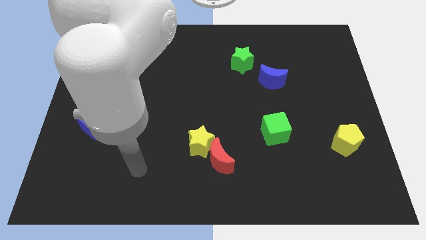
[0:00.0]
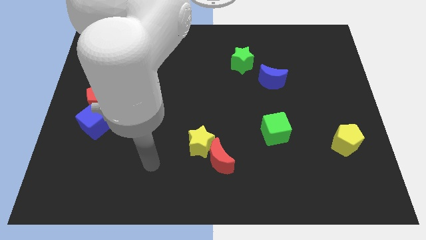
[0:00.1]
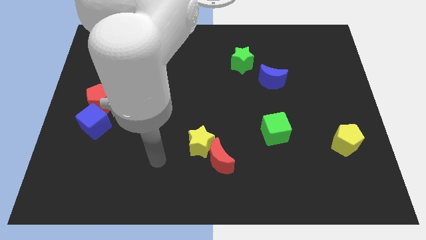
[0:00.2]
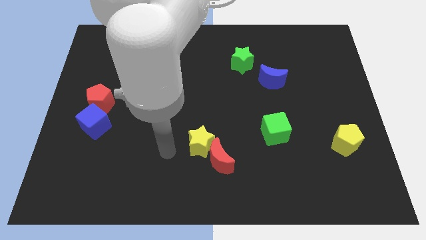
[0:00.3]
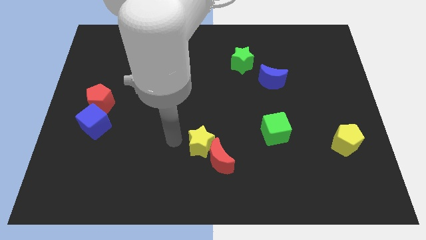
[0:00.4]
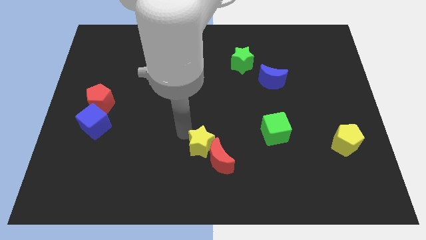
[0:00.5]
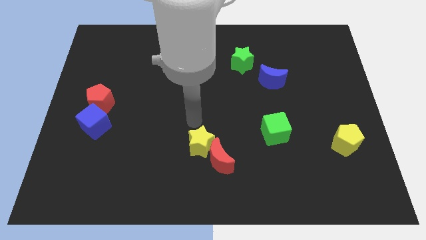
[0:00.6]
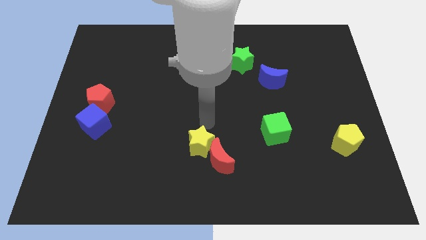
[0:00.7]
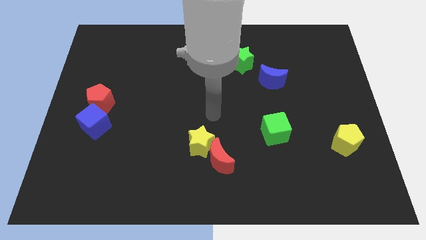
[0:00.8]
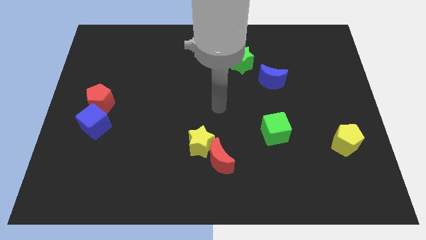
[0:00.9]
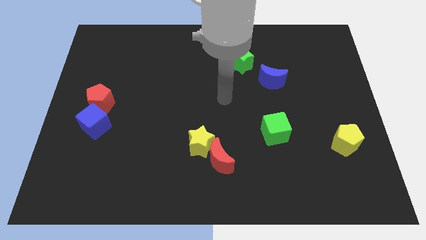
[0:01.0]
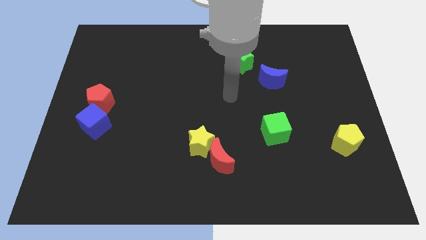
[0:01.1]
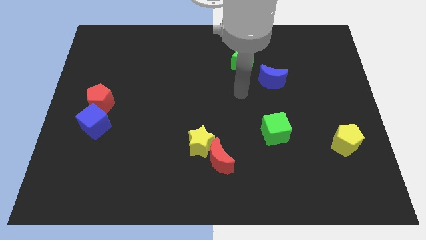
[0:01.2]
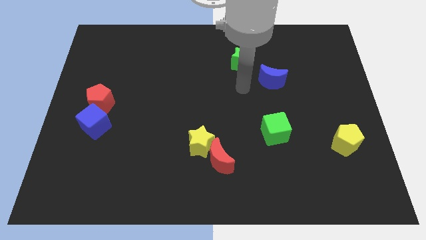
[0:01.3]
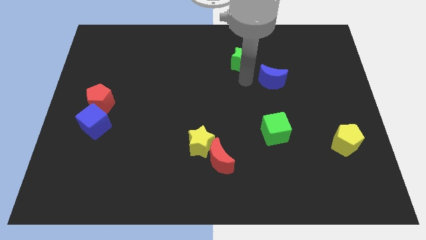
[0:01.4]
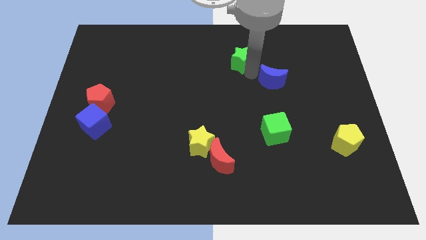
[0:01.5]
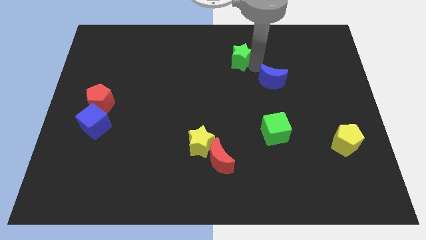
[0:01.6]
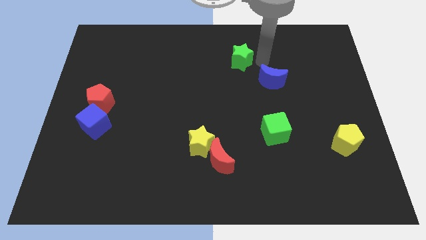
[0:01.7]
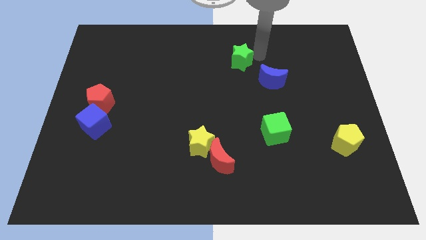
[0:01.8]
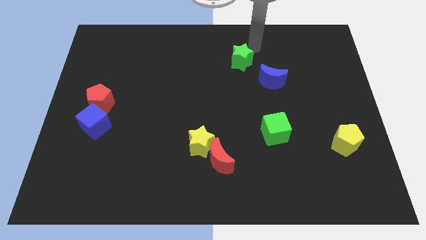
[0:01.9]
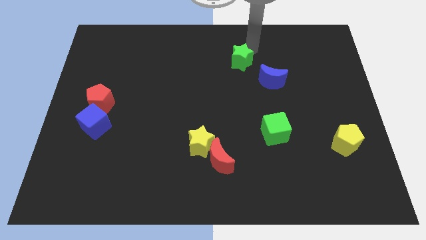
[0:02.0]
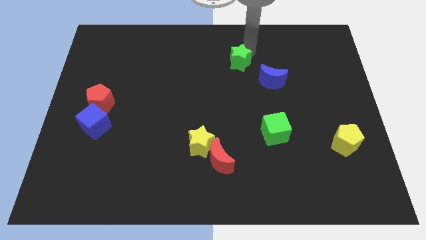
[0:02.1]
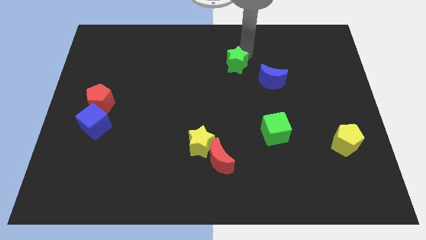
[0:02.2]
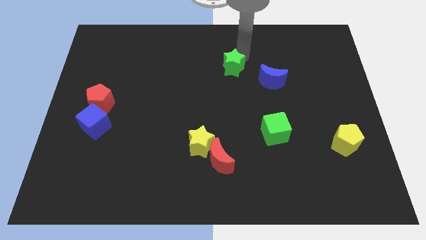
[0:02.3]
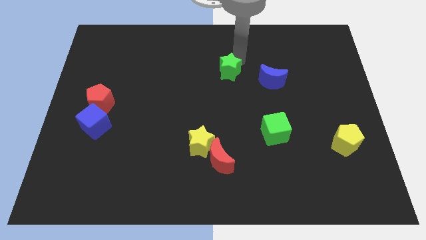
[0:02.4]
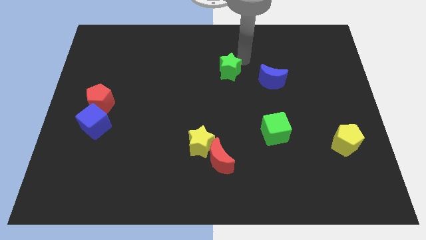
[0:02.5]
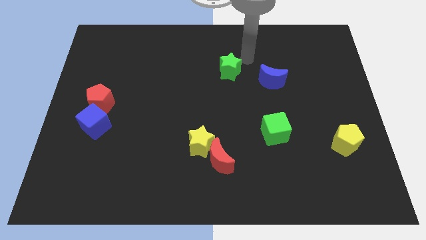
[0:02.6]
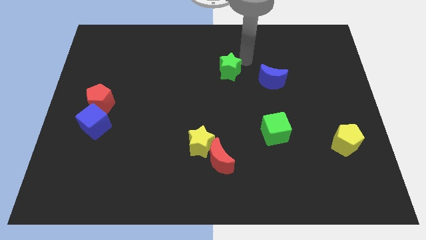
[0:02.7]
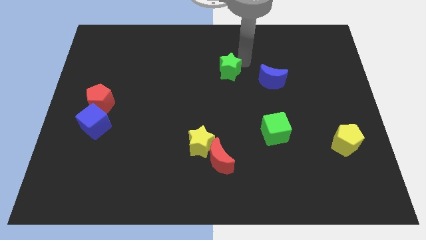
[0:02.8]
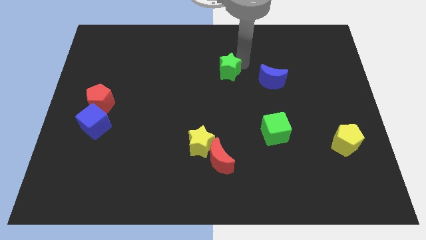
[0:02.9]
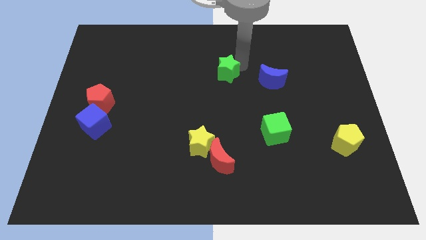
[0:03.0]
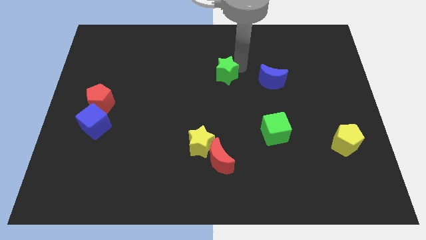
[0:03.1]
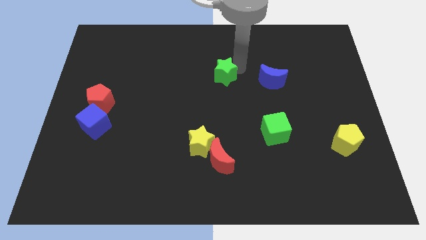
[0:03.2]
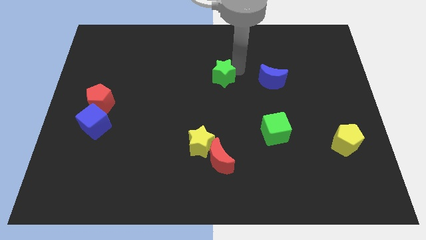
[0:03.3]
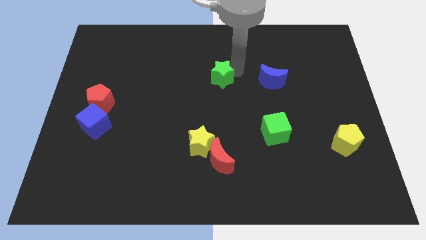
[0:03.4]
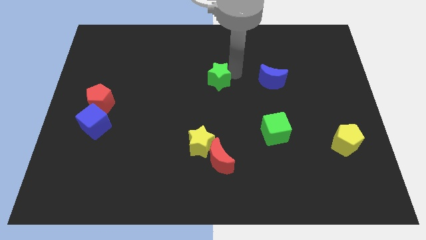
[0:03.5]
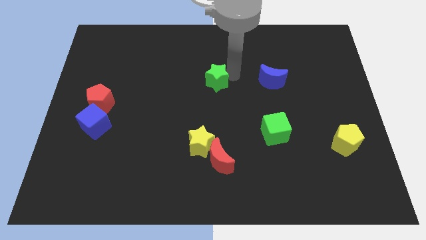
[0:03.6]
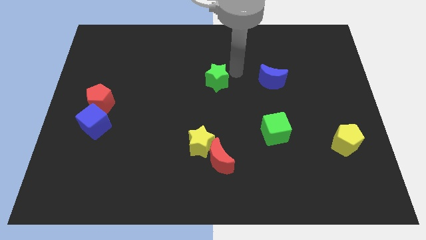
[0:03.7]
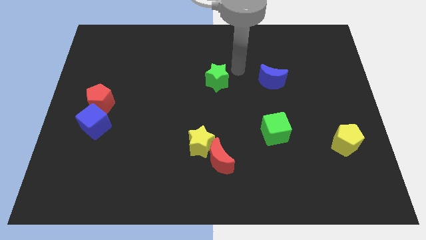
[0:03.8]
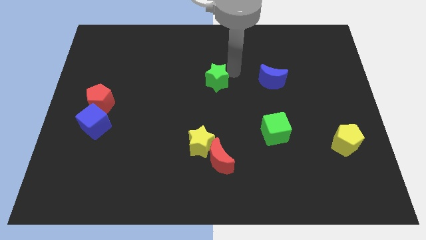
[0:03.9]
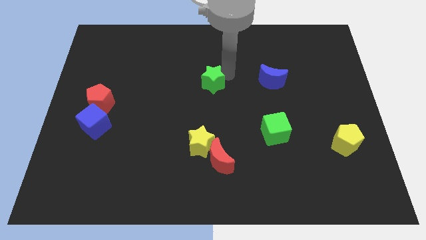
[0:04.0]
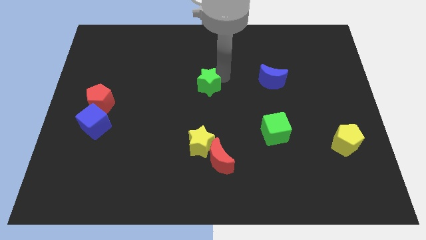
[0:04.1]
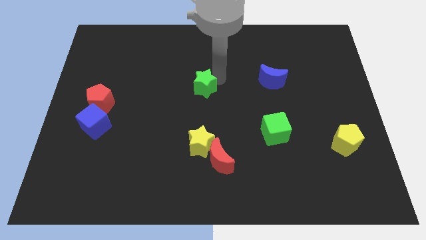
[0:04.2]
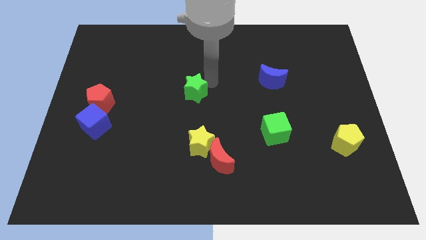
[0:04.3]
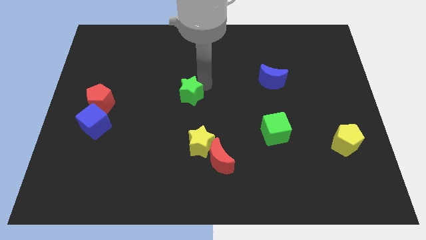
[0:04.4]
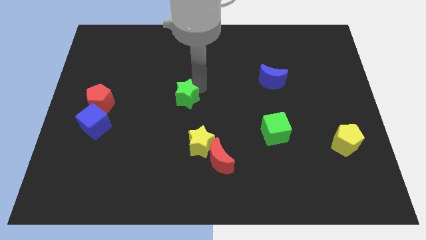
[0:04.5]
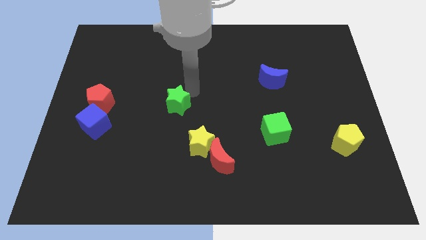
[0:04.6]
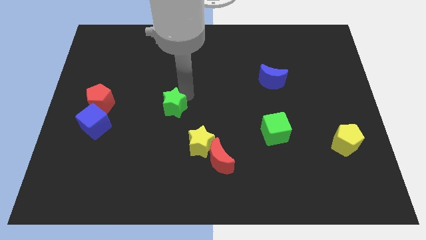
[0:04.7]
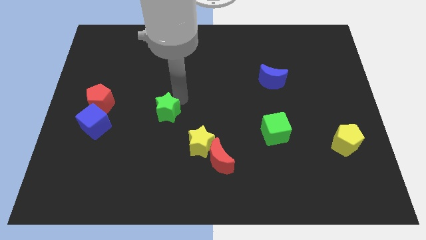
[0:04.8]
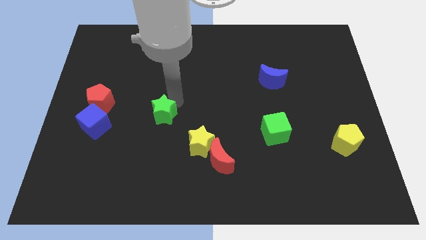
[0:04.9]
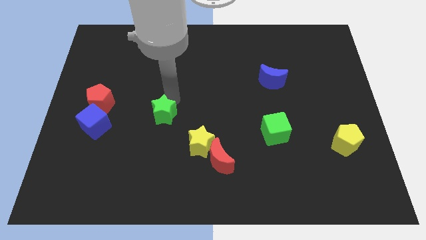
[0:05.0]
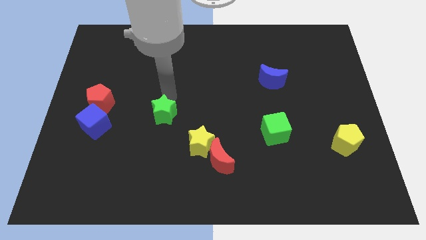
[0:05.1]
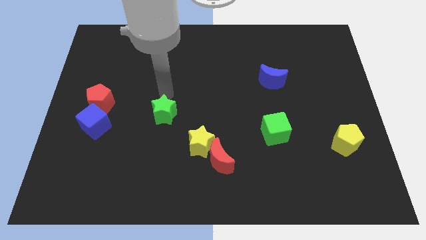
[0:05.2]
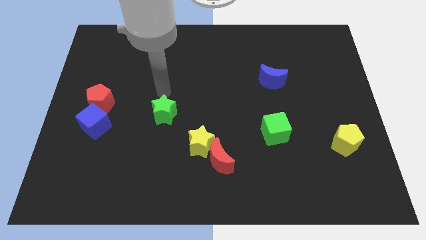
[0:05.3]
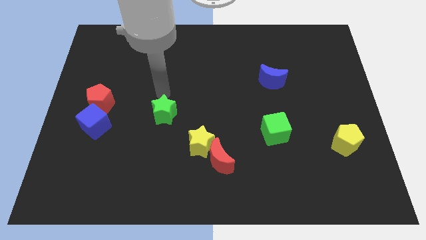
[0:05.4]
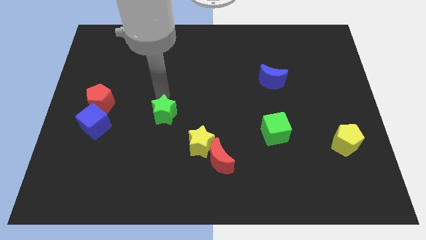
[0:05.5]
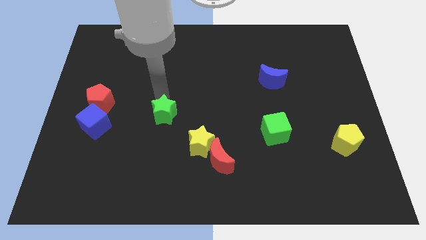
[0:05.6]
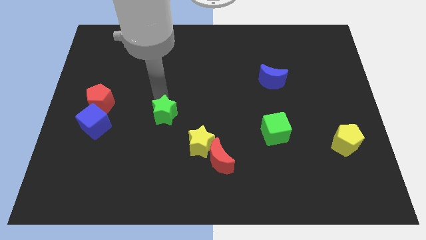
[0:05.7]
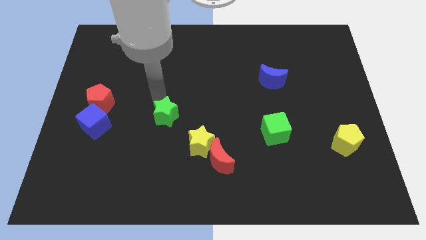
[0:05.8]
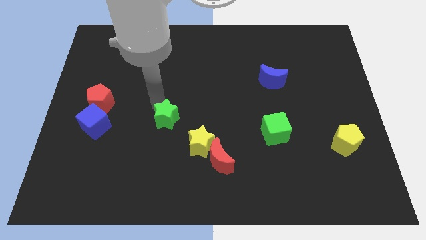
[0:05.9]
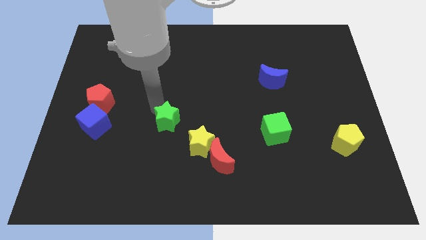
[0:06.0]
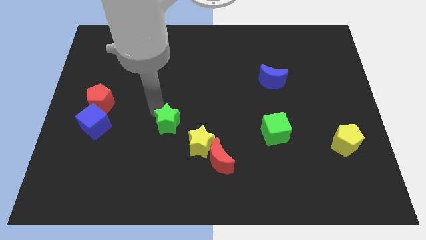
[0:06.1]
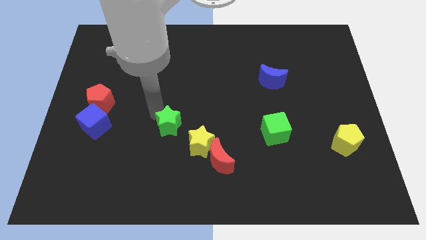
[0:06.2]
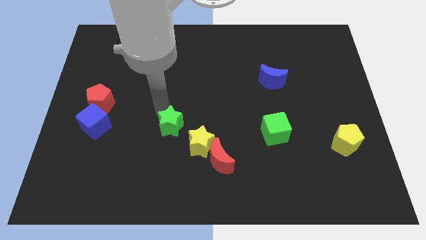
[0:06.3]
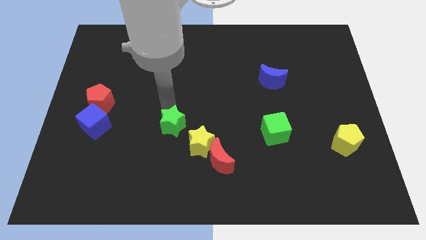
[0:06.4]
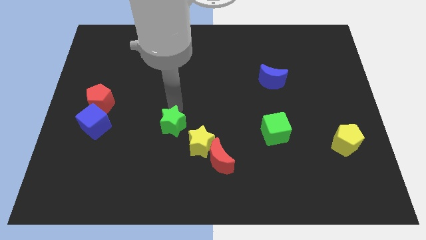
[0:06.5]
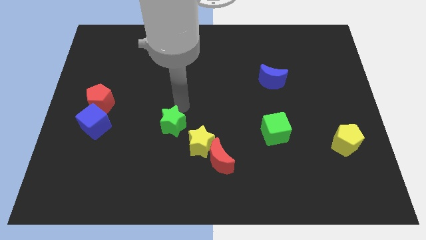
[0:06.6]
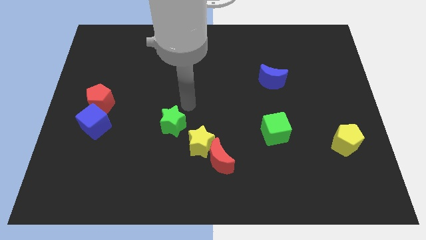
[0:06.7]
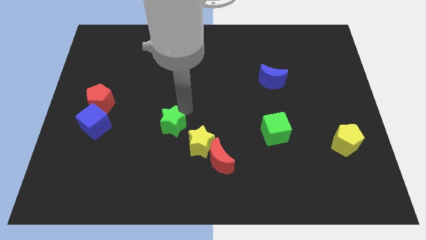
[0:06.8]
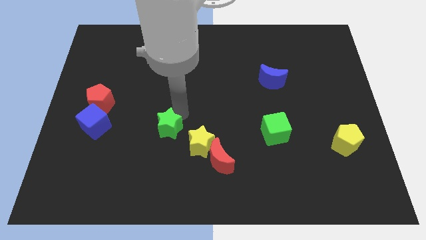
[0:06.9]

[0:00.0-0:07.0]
slide the green star to the left side of the yellow star
